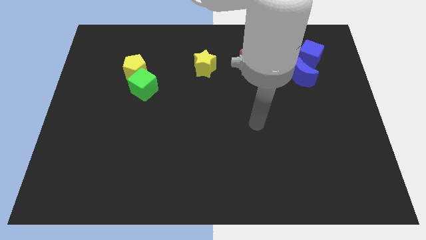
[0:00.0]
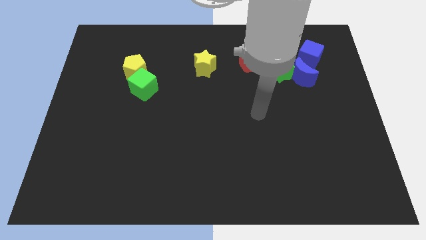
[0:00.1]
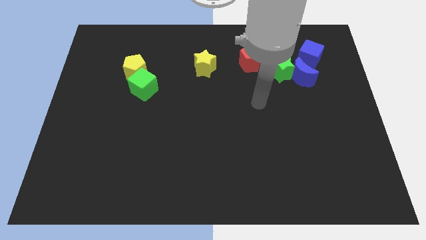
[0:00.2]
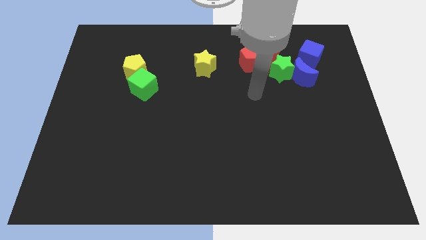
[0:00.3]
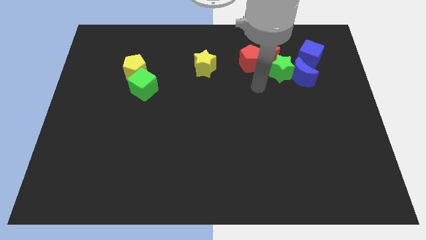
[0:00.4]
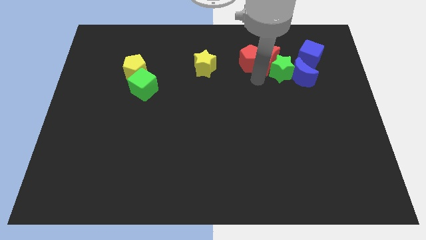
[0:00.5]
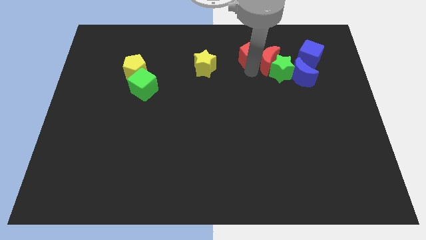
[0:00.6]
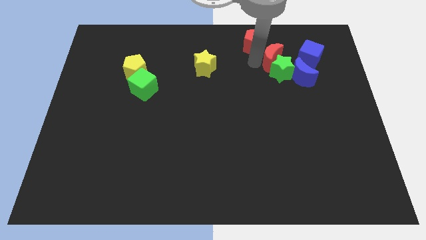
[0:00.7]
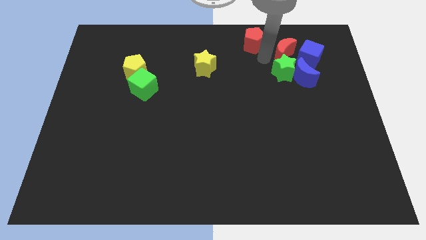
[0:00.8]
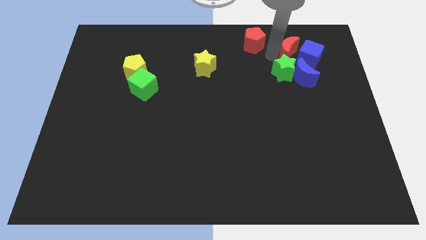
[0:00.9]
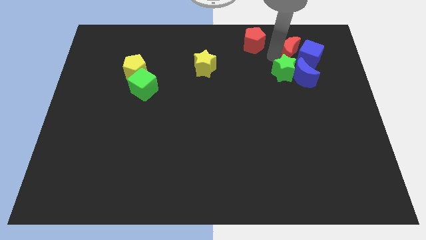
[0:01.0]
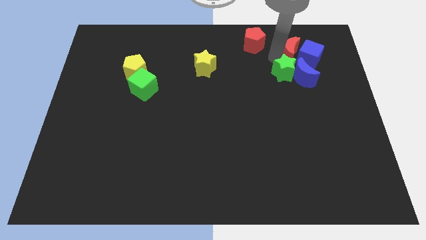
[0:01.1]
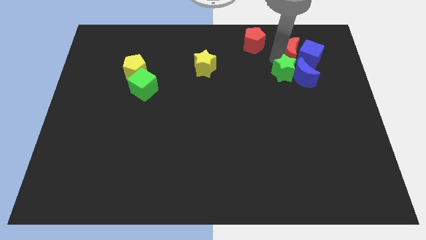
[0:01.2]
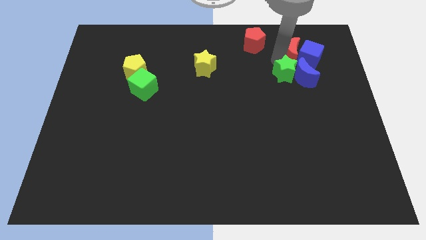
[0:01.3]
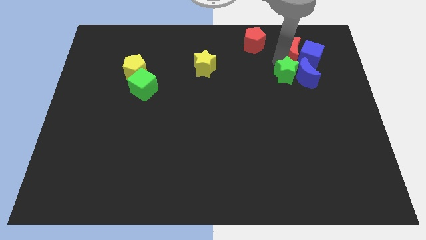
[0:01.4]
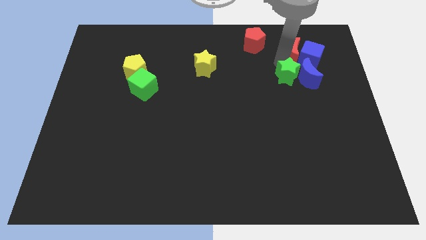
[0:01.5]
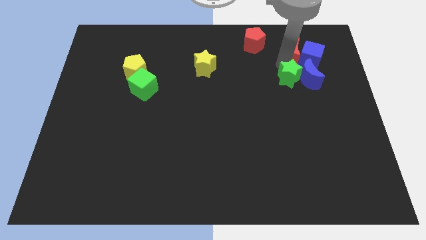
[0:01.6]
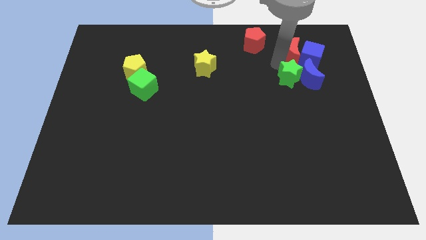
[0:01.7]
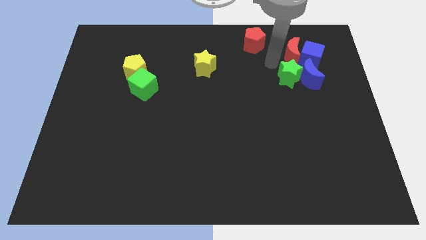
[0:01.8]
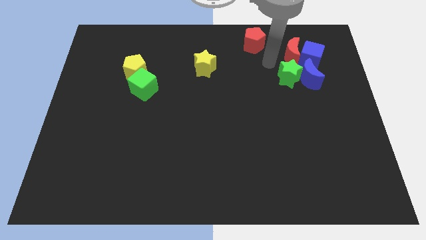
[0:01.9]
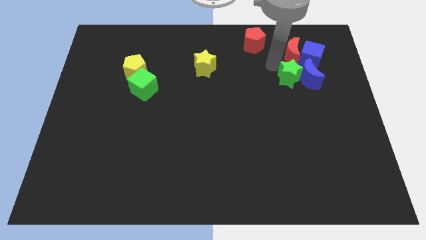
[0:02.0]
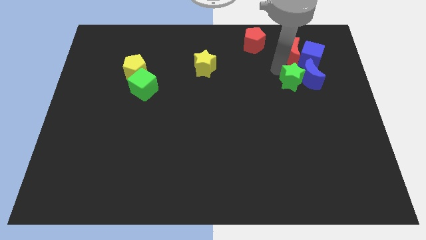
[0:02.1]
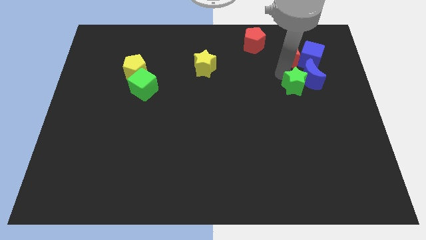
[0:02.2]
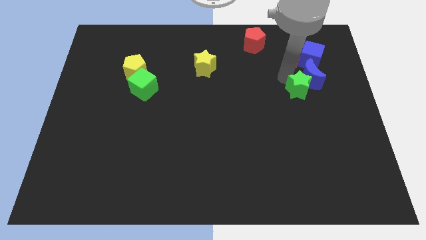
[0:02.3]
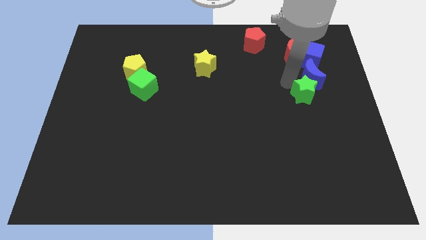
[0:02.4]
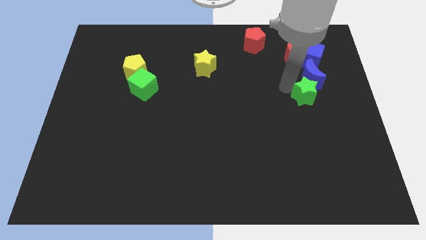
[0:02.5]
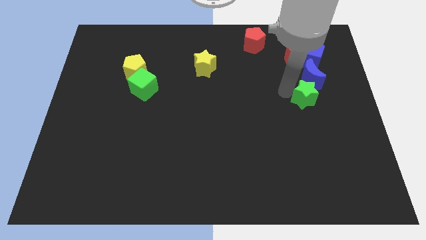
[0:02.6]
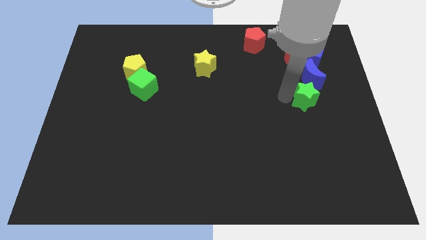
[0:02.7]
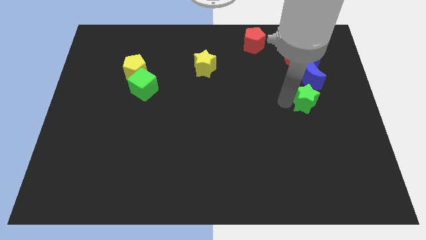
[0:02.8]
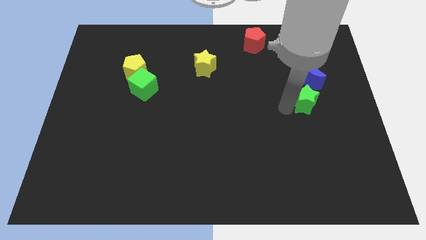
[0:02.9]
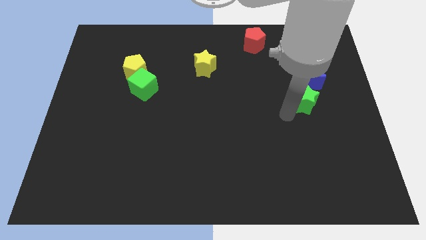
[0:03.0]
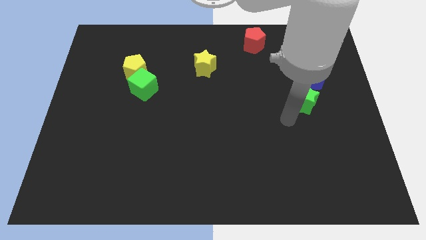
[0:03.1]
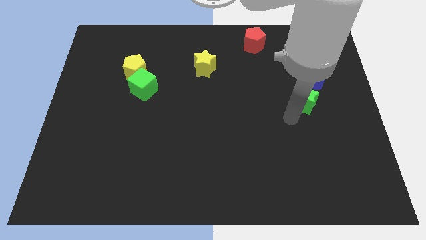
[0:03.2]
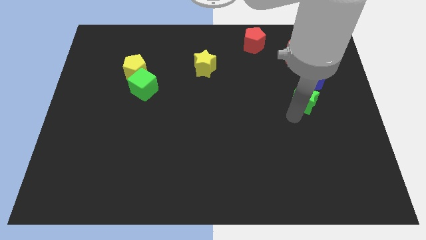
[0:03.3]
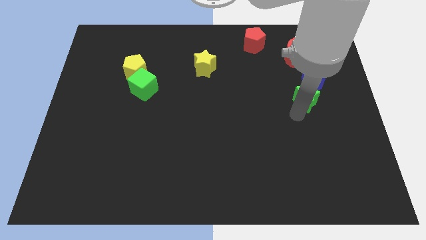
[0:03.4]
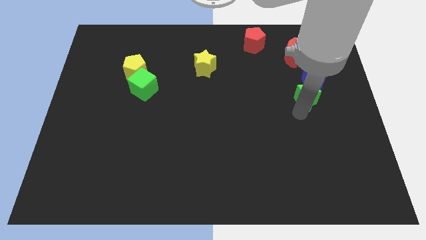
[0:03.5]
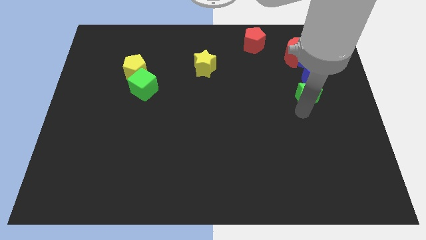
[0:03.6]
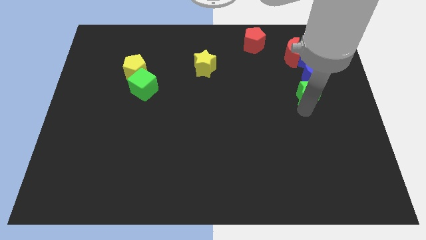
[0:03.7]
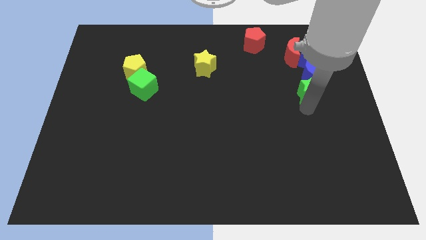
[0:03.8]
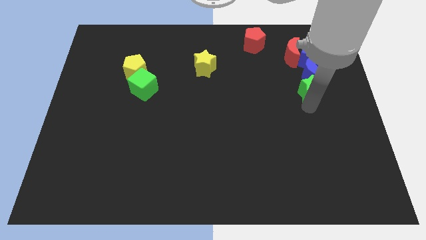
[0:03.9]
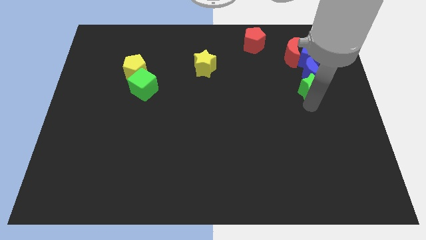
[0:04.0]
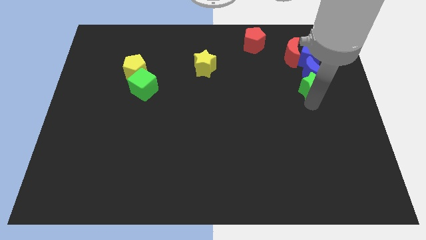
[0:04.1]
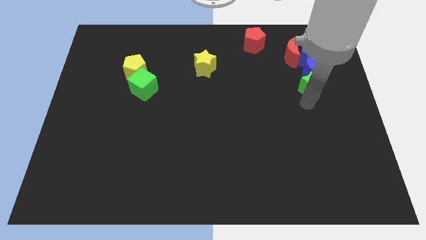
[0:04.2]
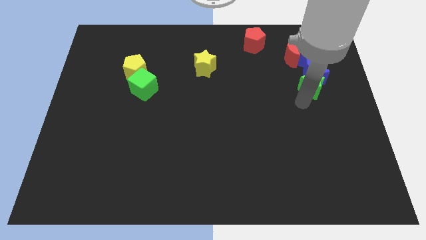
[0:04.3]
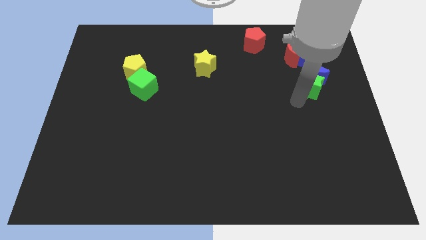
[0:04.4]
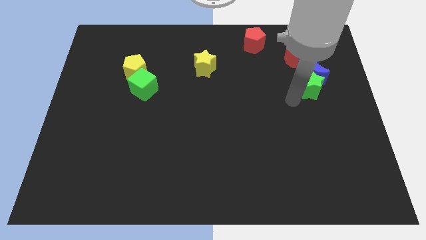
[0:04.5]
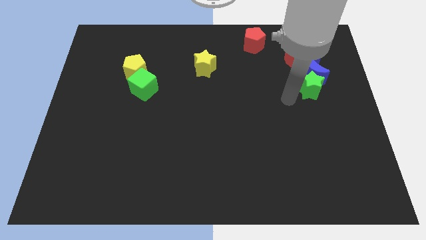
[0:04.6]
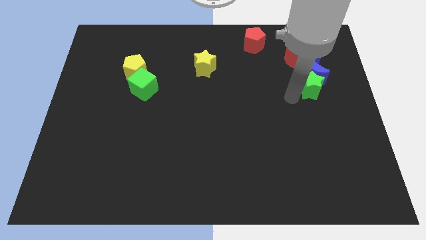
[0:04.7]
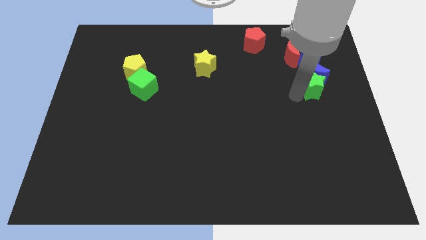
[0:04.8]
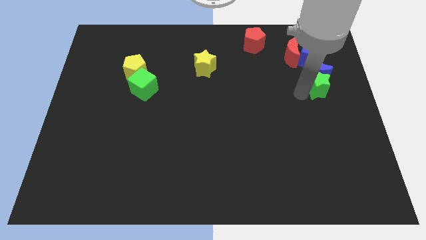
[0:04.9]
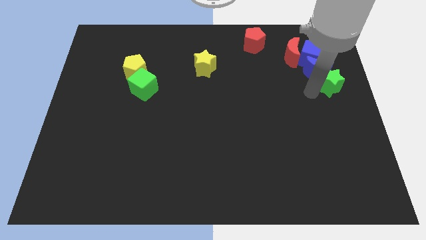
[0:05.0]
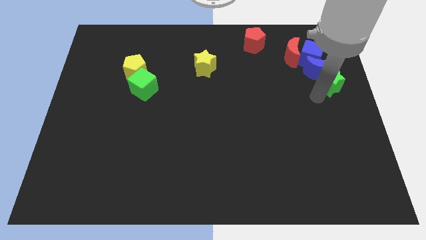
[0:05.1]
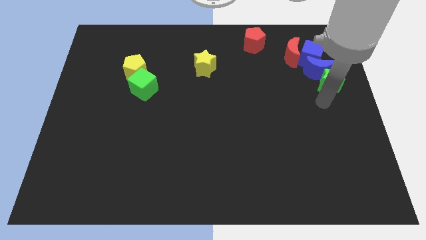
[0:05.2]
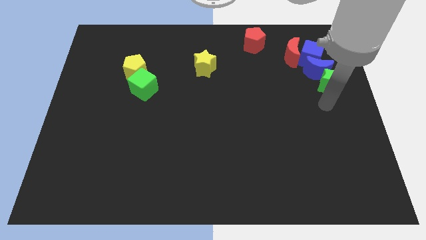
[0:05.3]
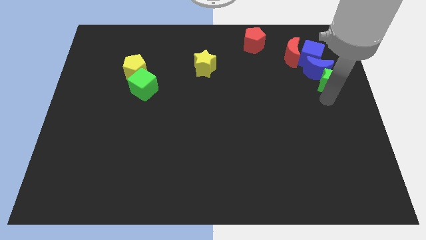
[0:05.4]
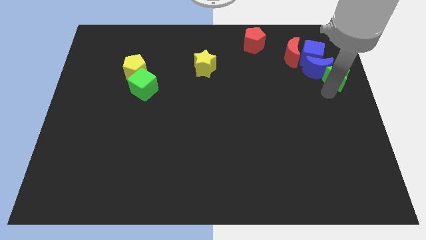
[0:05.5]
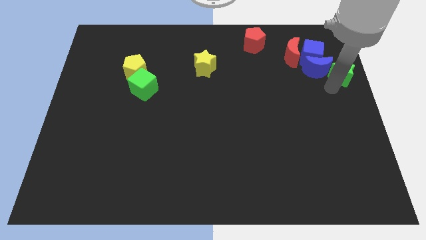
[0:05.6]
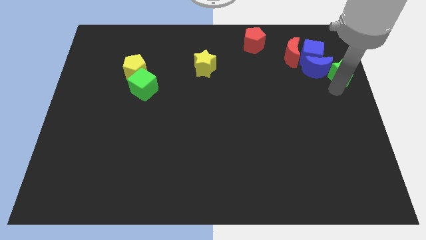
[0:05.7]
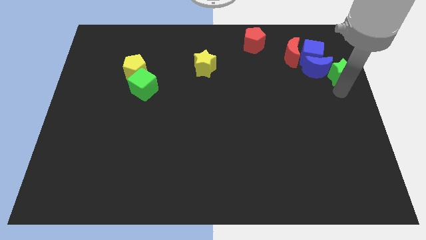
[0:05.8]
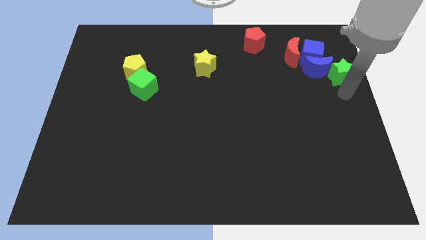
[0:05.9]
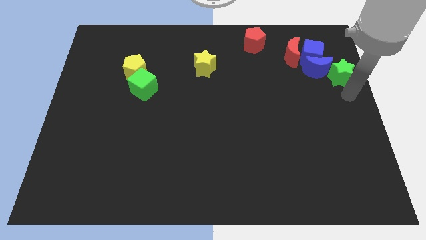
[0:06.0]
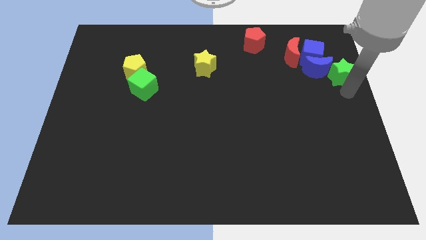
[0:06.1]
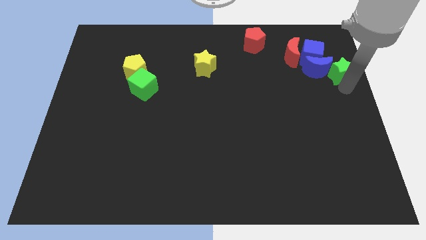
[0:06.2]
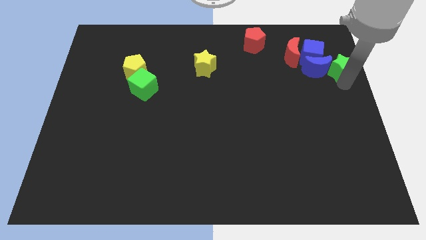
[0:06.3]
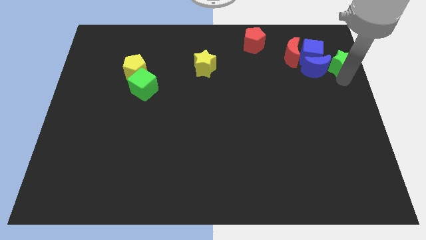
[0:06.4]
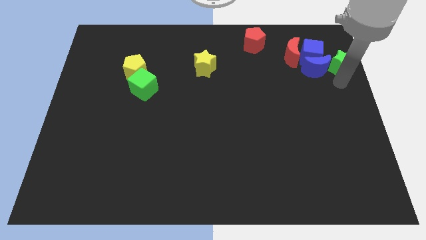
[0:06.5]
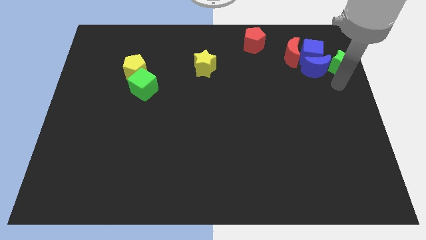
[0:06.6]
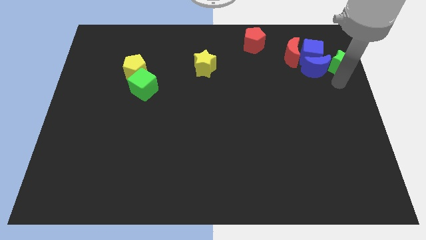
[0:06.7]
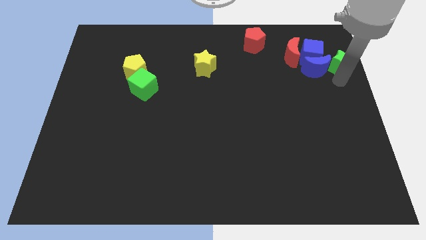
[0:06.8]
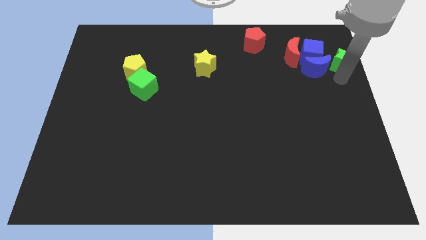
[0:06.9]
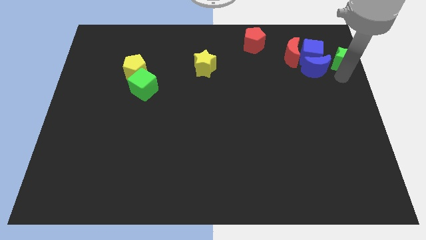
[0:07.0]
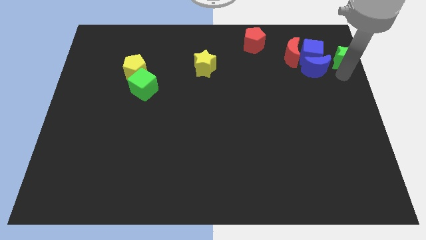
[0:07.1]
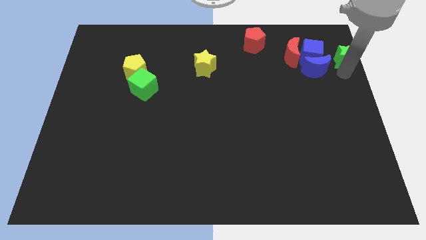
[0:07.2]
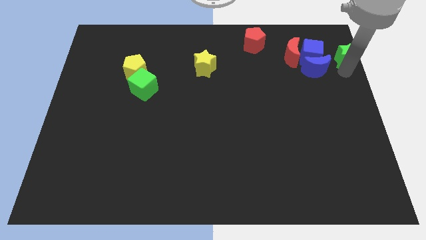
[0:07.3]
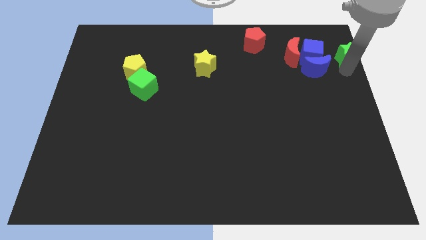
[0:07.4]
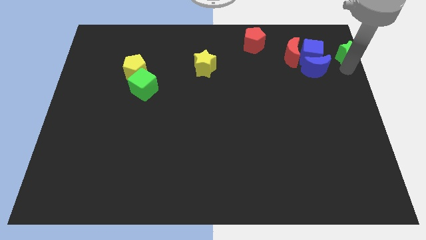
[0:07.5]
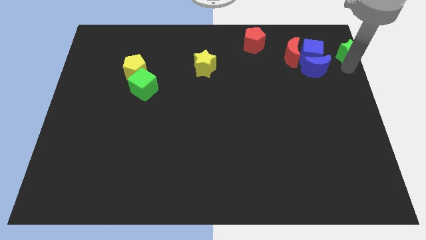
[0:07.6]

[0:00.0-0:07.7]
put the green star to the top right
